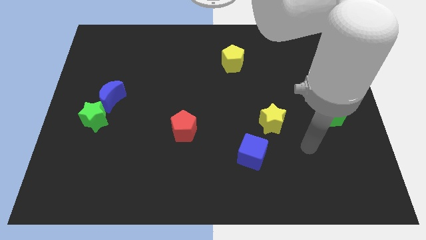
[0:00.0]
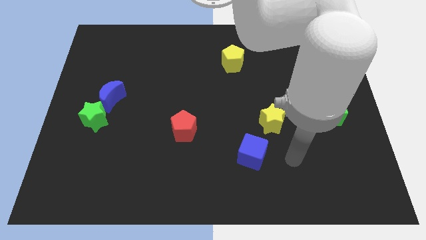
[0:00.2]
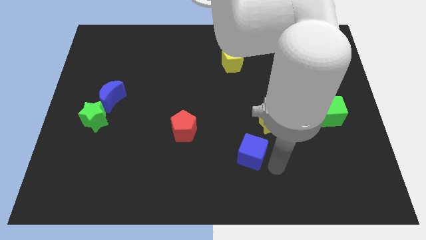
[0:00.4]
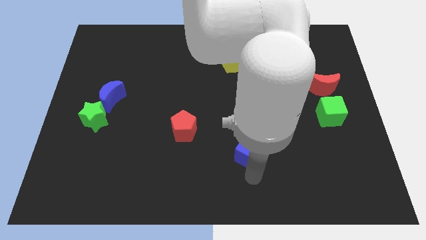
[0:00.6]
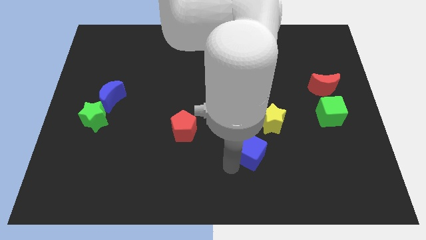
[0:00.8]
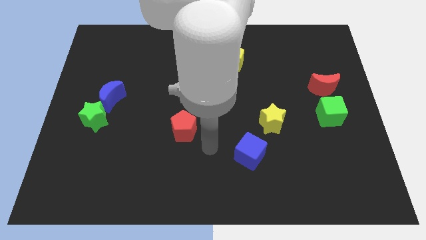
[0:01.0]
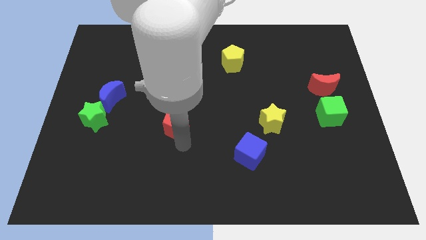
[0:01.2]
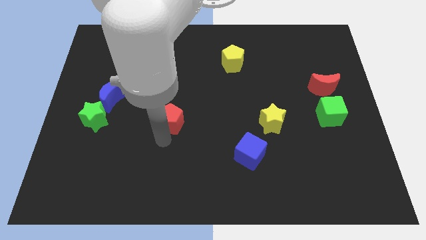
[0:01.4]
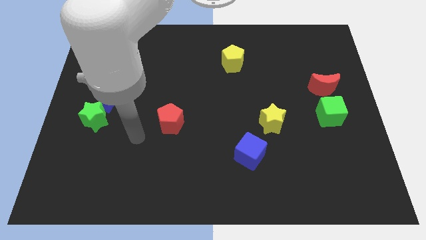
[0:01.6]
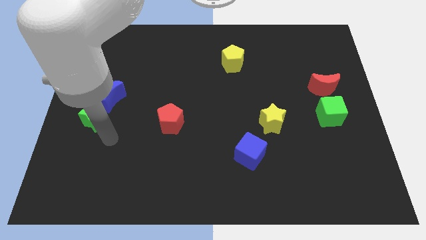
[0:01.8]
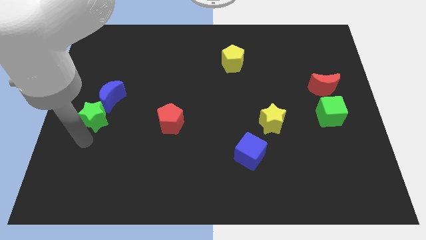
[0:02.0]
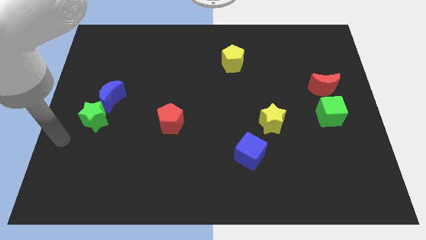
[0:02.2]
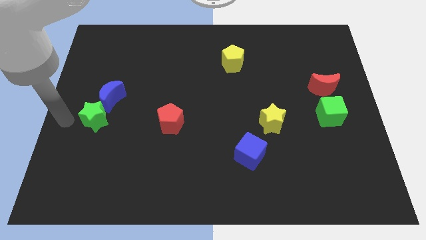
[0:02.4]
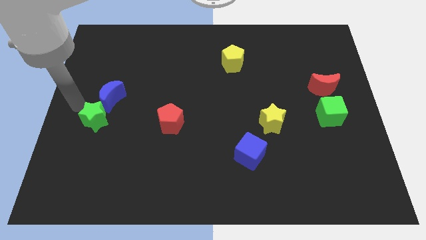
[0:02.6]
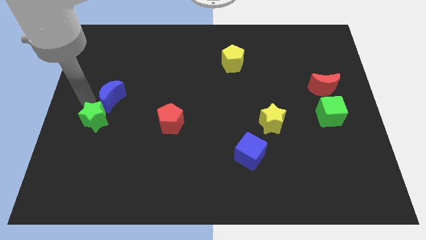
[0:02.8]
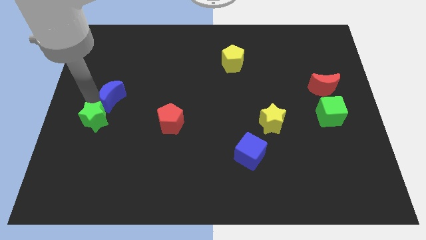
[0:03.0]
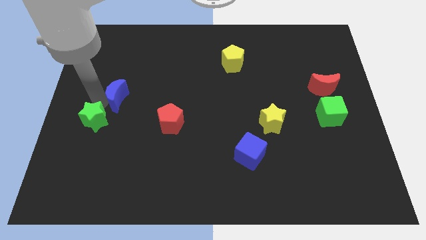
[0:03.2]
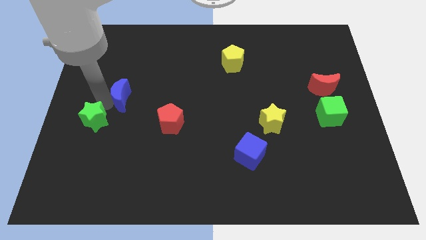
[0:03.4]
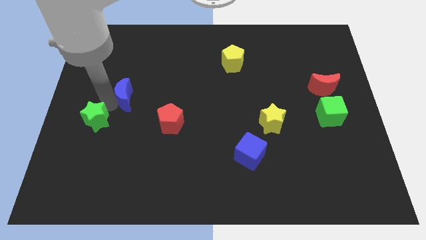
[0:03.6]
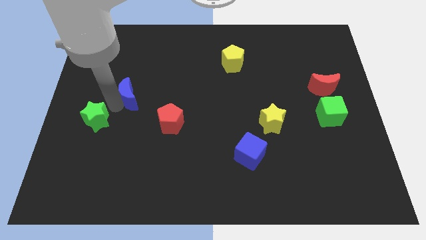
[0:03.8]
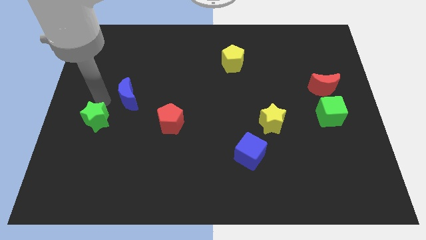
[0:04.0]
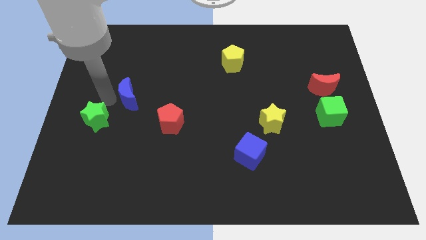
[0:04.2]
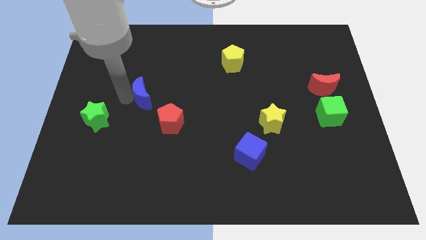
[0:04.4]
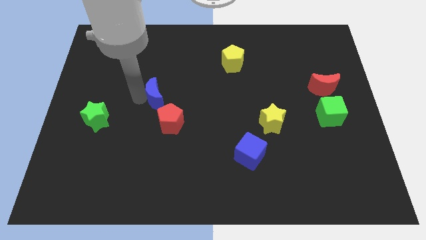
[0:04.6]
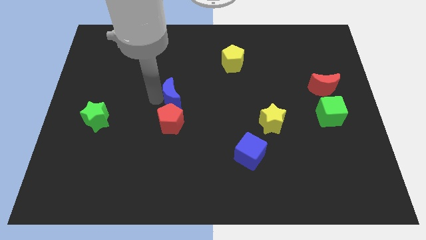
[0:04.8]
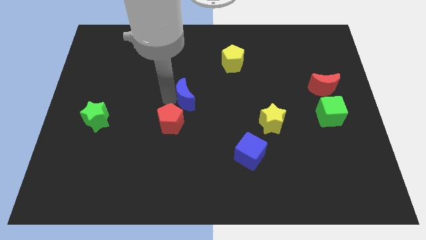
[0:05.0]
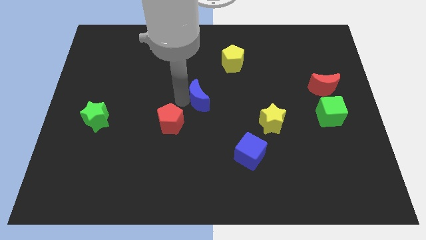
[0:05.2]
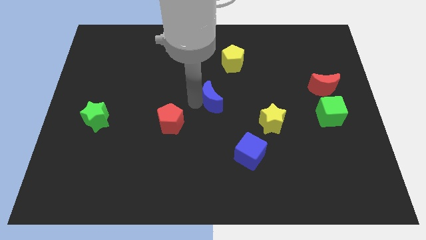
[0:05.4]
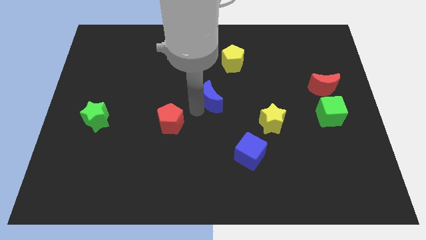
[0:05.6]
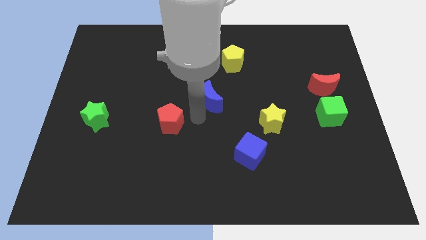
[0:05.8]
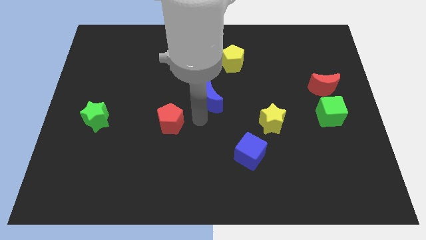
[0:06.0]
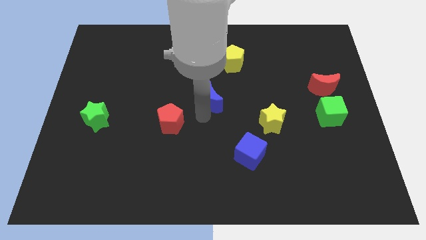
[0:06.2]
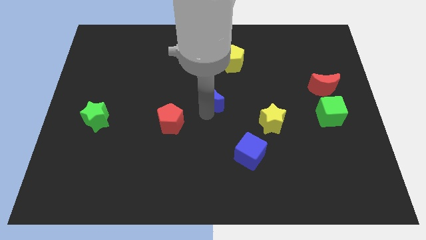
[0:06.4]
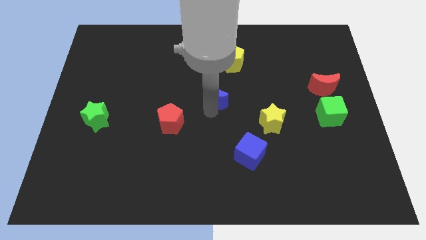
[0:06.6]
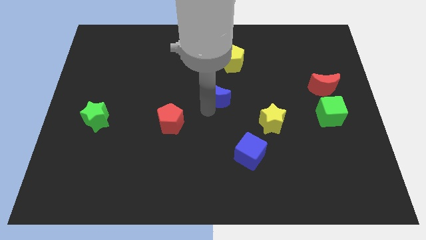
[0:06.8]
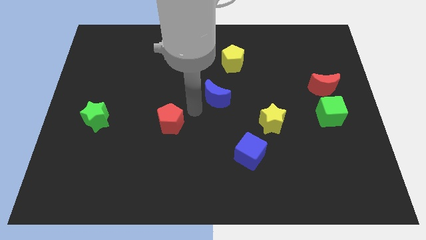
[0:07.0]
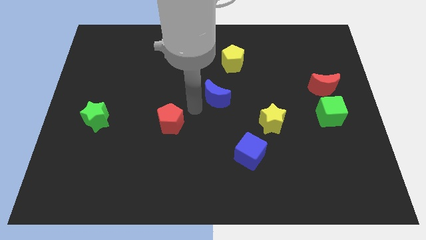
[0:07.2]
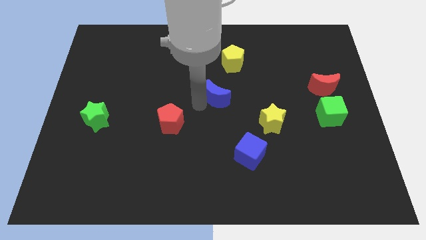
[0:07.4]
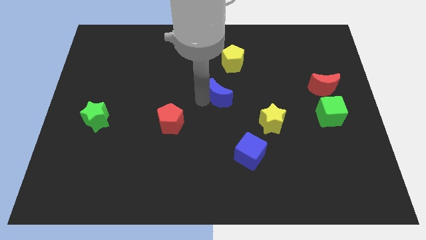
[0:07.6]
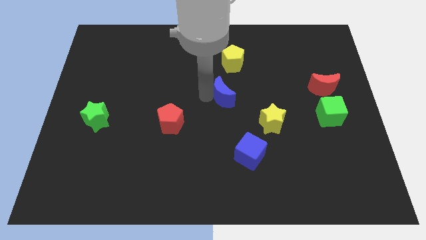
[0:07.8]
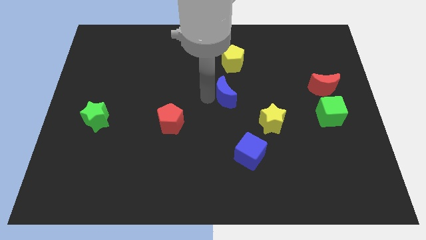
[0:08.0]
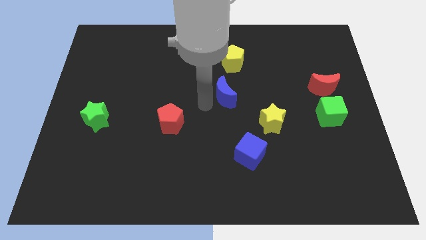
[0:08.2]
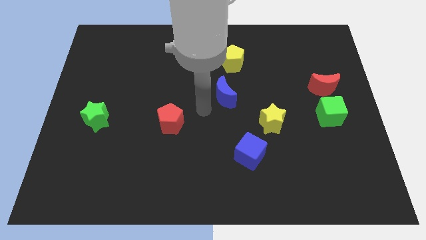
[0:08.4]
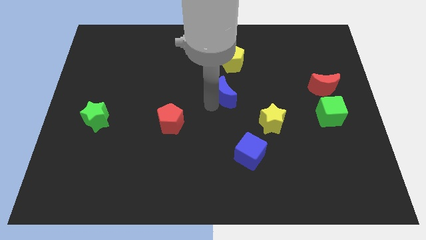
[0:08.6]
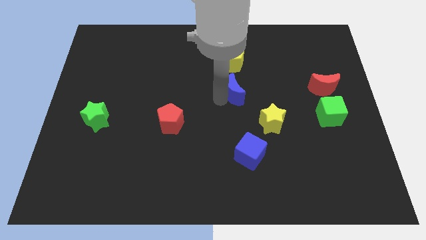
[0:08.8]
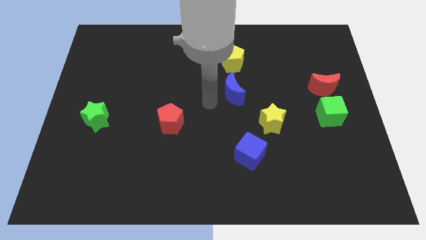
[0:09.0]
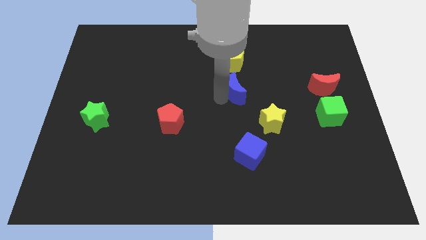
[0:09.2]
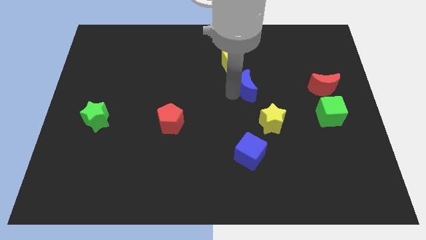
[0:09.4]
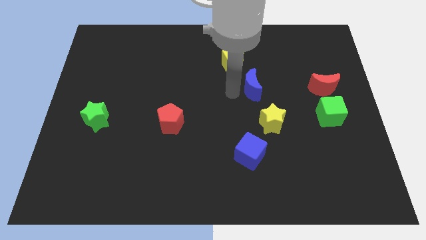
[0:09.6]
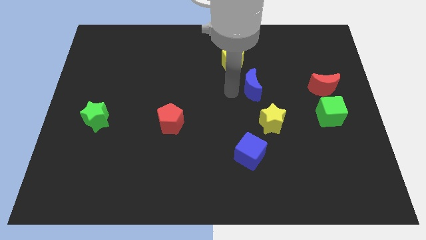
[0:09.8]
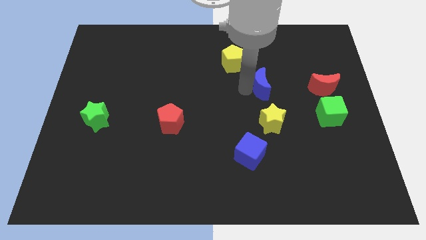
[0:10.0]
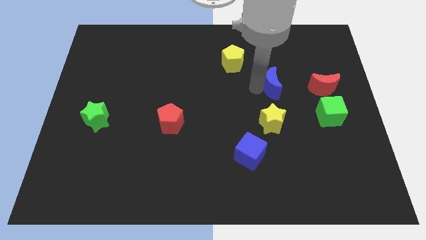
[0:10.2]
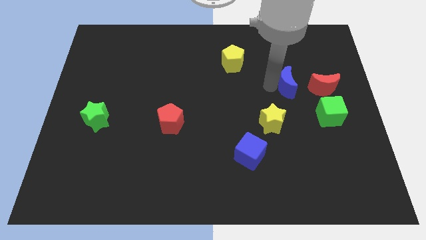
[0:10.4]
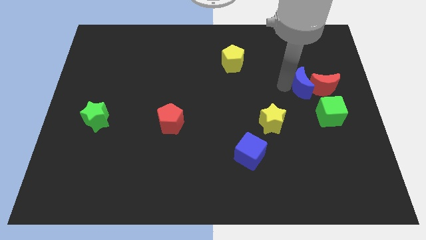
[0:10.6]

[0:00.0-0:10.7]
put the blue moon close to the red moon

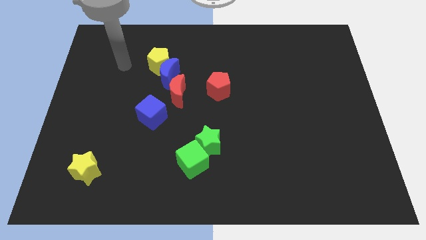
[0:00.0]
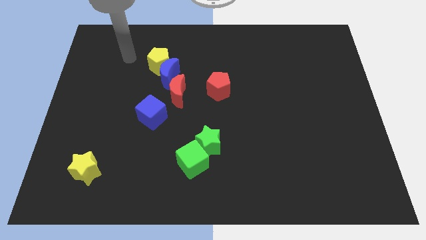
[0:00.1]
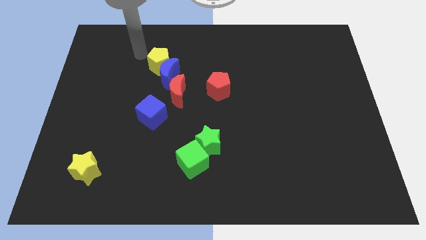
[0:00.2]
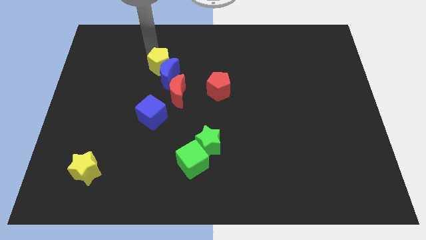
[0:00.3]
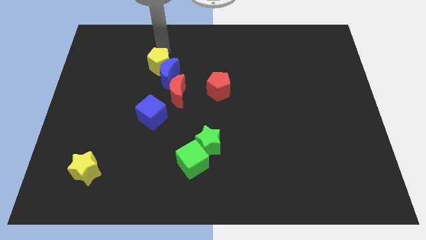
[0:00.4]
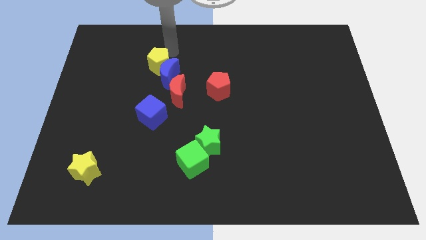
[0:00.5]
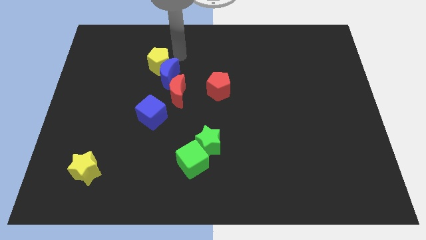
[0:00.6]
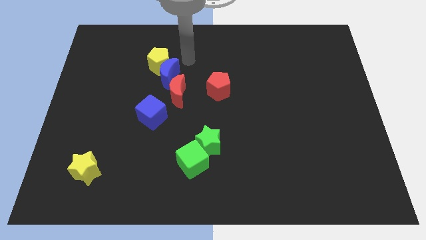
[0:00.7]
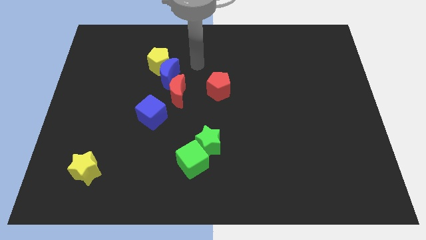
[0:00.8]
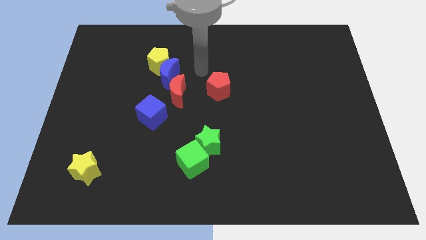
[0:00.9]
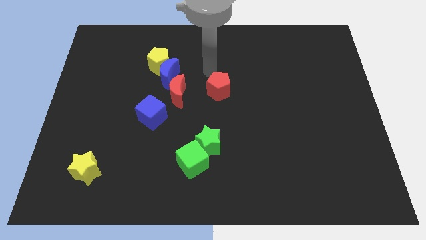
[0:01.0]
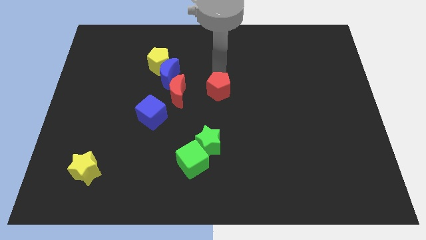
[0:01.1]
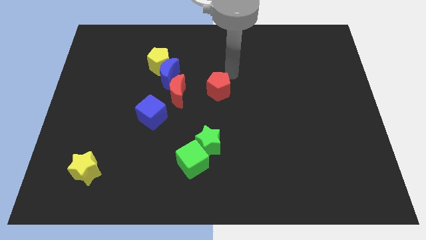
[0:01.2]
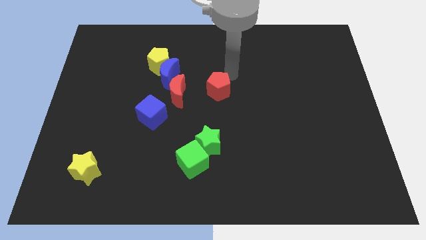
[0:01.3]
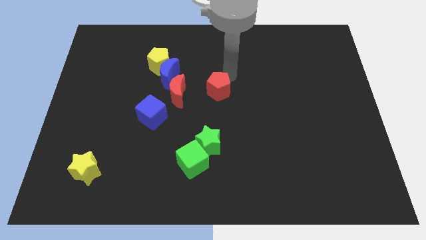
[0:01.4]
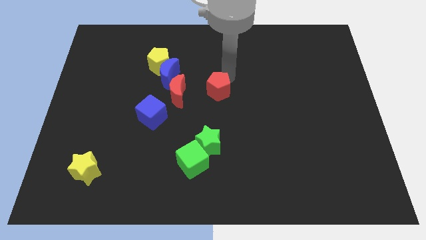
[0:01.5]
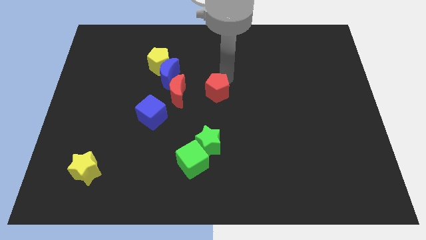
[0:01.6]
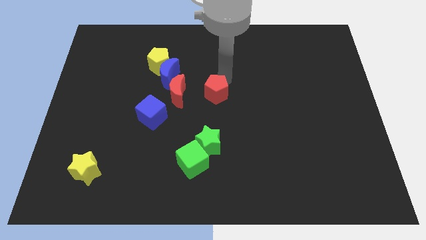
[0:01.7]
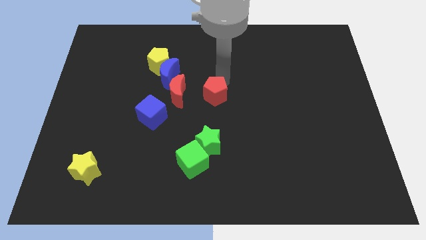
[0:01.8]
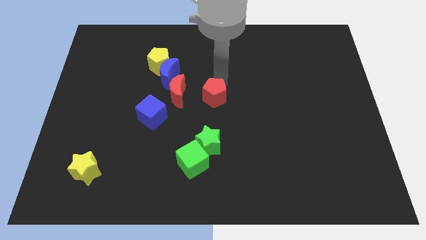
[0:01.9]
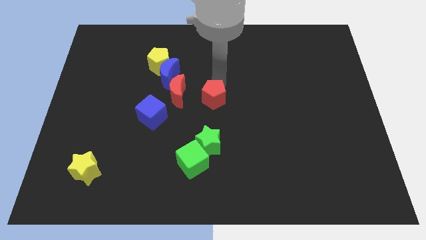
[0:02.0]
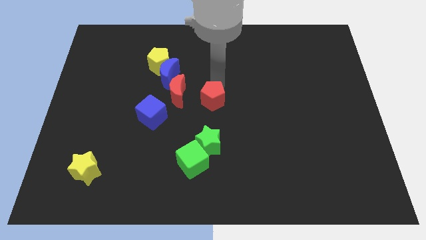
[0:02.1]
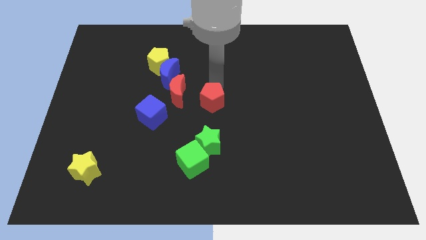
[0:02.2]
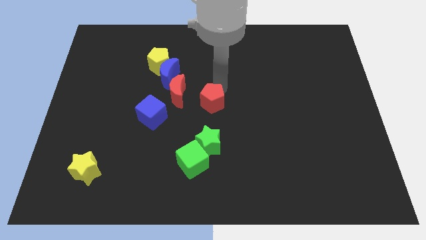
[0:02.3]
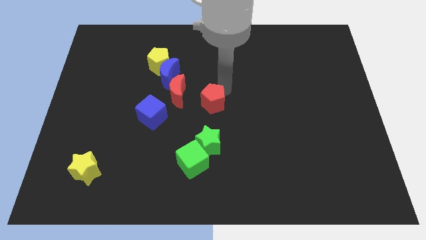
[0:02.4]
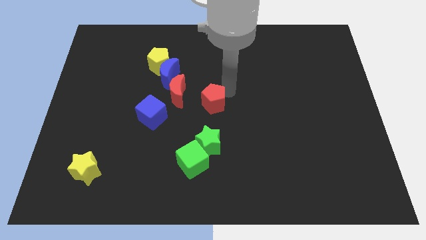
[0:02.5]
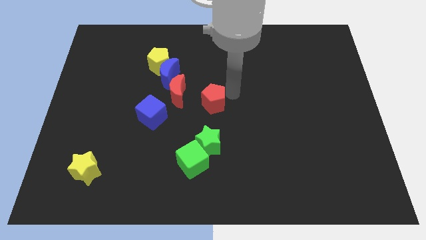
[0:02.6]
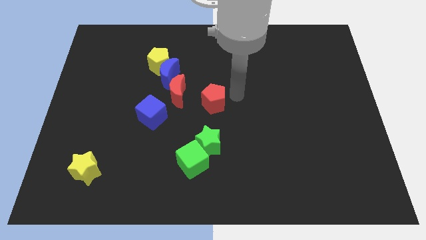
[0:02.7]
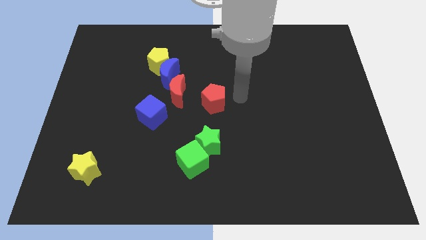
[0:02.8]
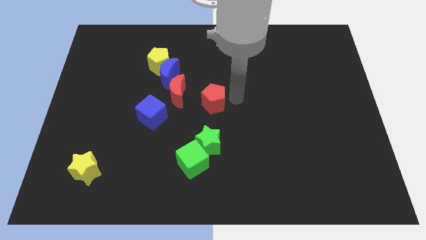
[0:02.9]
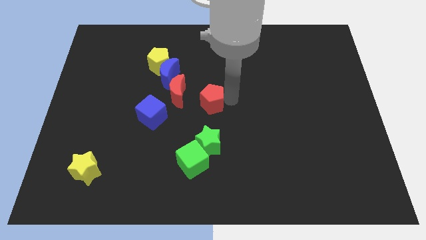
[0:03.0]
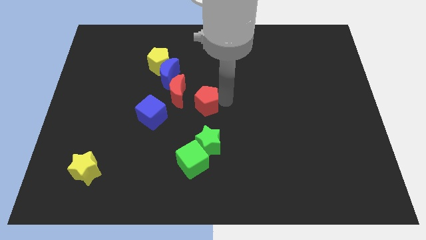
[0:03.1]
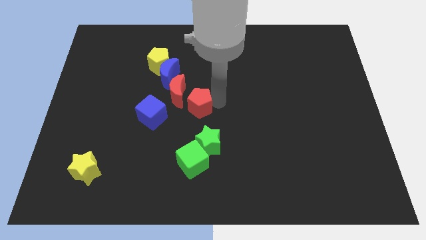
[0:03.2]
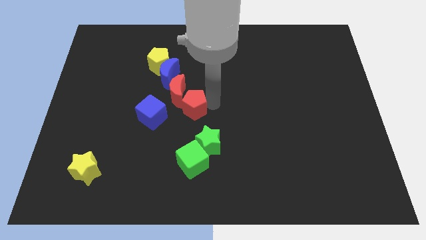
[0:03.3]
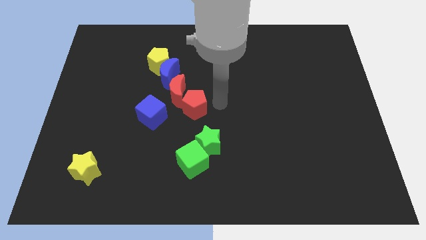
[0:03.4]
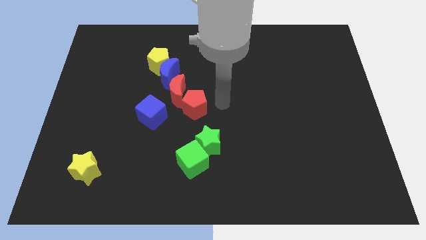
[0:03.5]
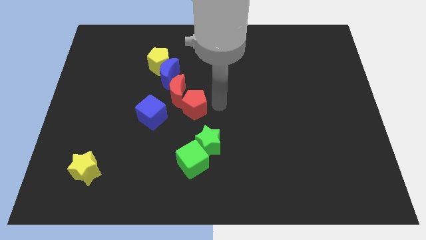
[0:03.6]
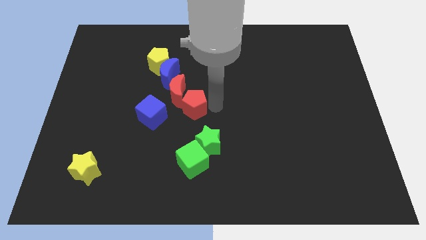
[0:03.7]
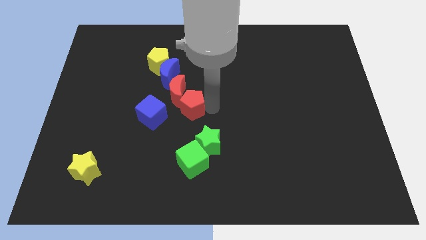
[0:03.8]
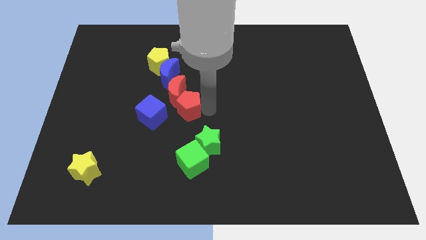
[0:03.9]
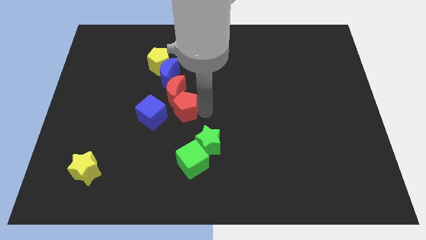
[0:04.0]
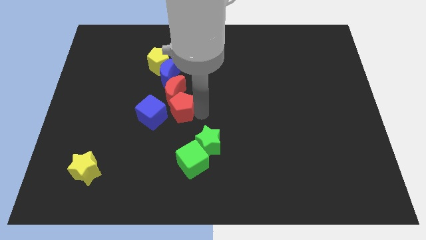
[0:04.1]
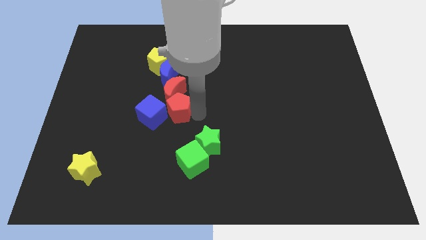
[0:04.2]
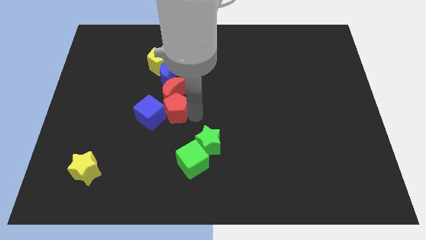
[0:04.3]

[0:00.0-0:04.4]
put the red pentagon close to the blue cube
